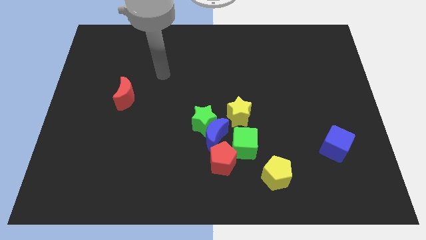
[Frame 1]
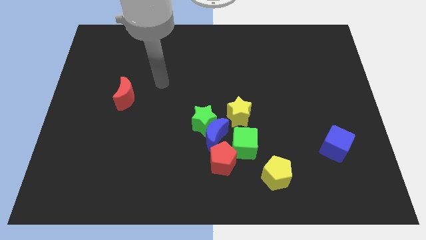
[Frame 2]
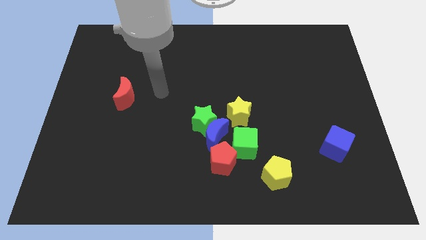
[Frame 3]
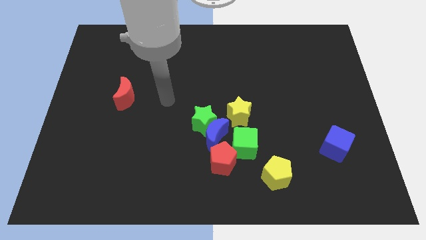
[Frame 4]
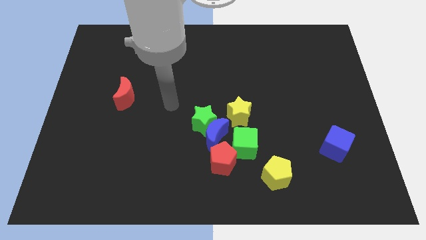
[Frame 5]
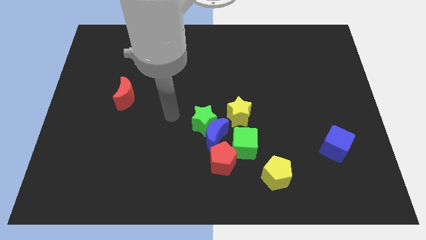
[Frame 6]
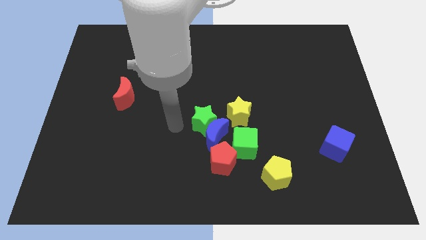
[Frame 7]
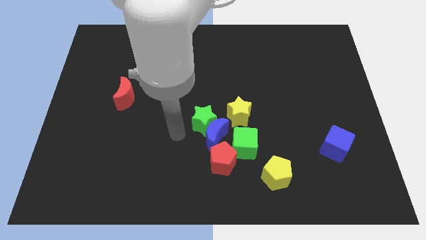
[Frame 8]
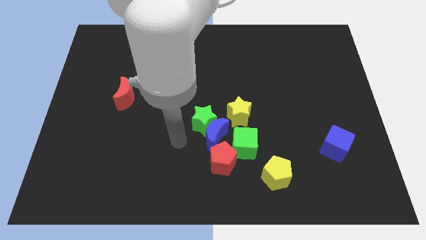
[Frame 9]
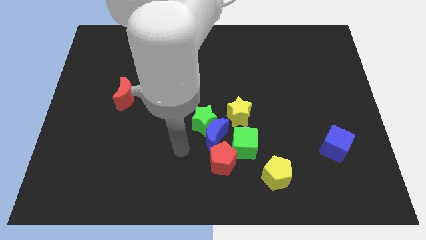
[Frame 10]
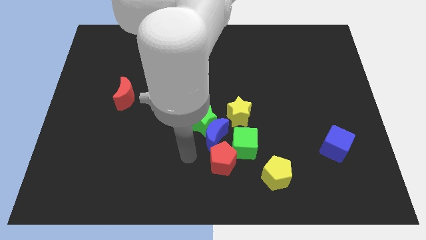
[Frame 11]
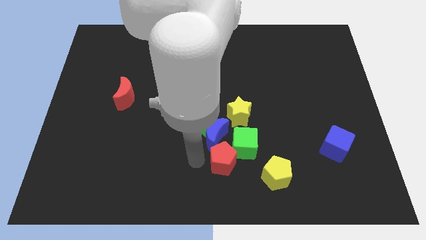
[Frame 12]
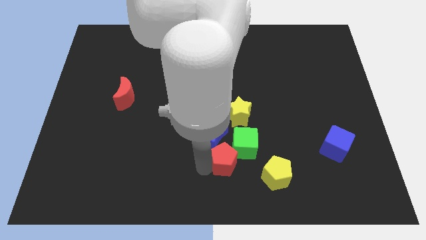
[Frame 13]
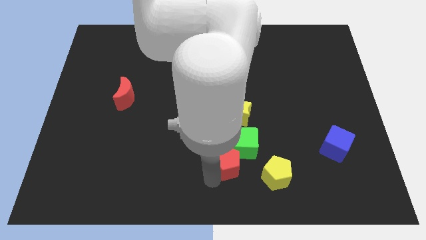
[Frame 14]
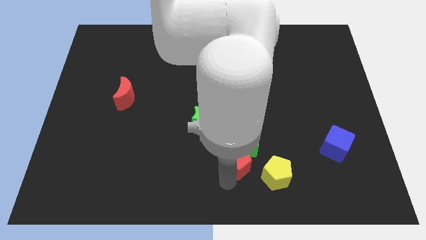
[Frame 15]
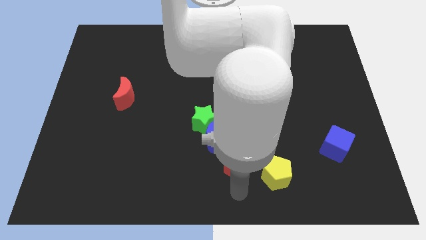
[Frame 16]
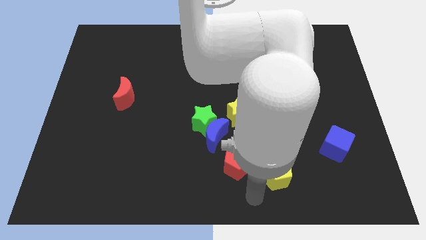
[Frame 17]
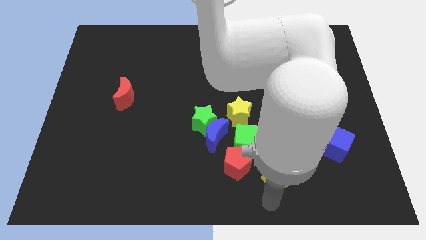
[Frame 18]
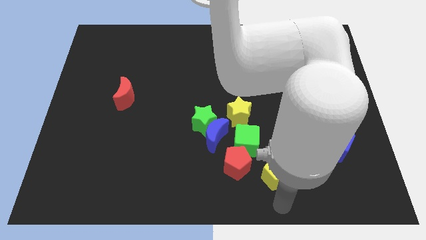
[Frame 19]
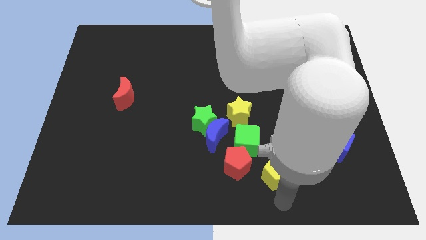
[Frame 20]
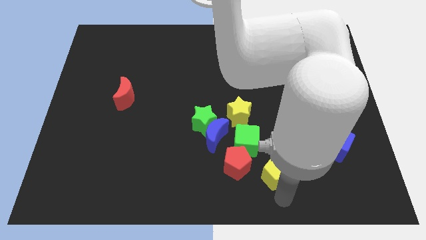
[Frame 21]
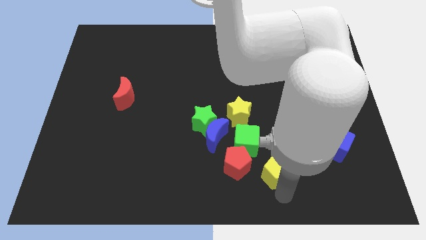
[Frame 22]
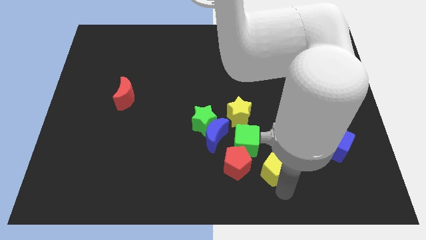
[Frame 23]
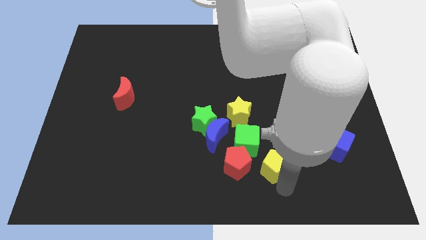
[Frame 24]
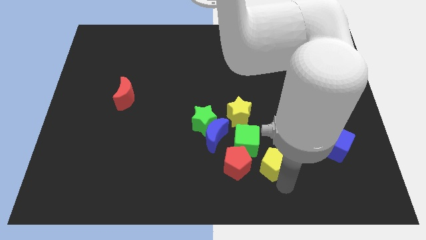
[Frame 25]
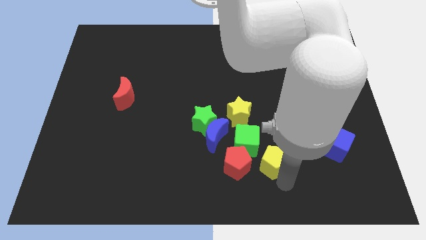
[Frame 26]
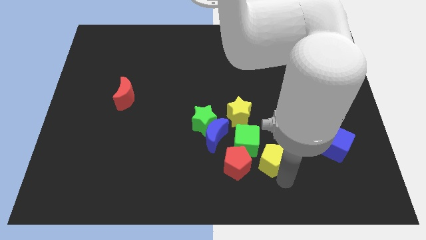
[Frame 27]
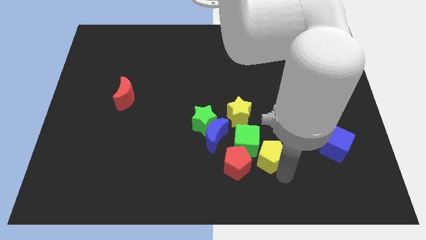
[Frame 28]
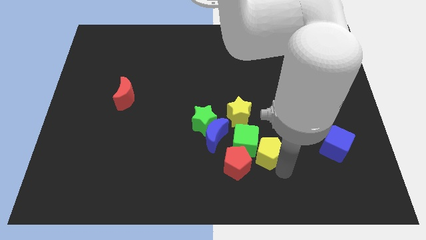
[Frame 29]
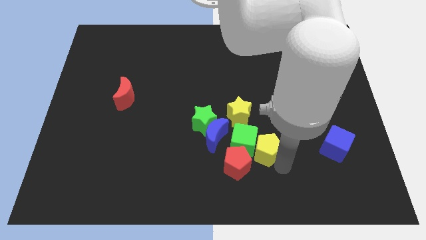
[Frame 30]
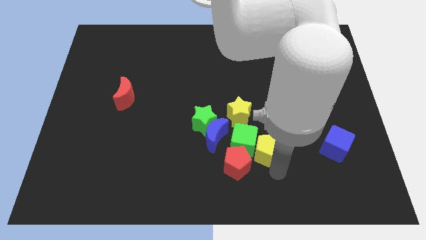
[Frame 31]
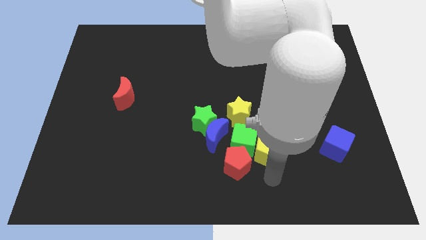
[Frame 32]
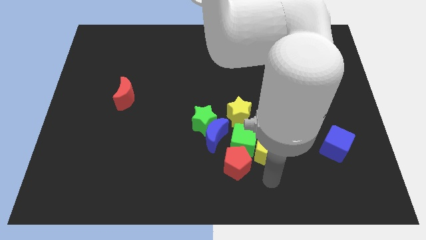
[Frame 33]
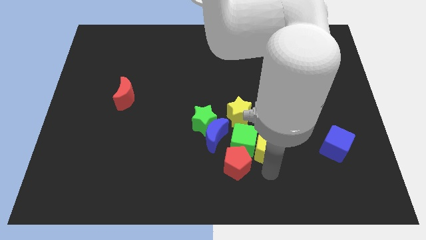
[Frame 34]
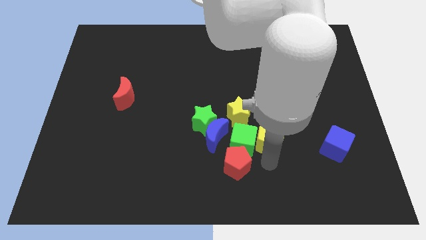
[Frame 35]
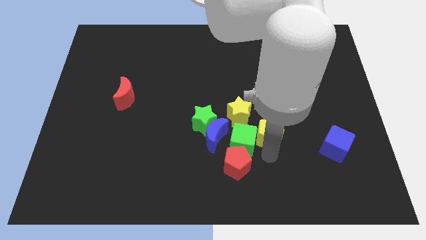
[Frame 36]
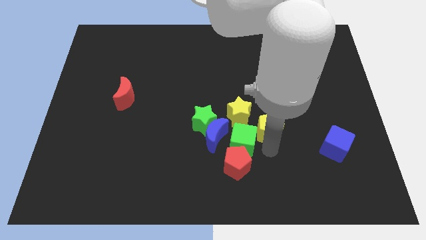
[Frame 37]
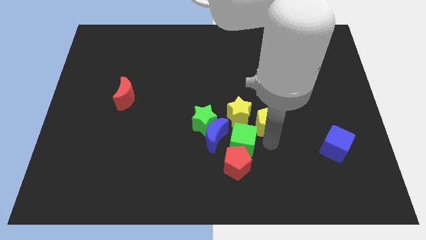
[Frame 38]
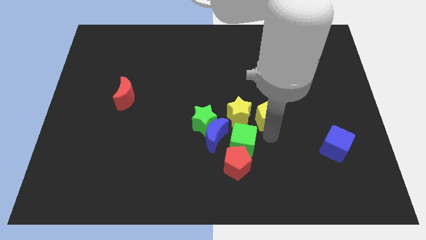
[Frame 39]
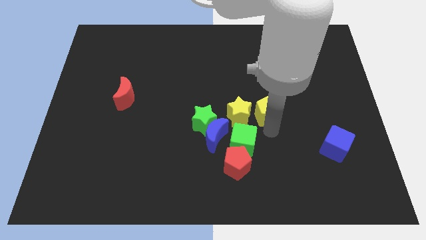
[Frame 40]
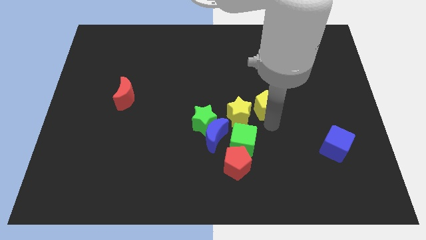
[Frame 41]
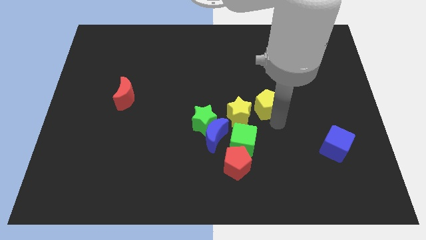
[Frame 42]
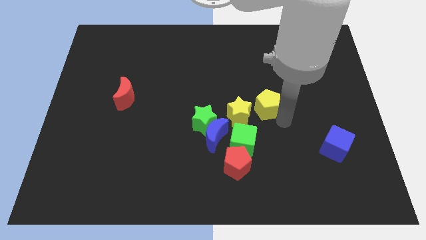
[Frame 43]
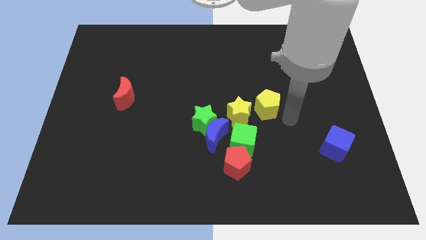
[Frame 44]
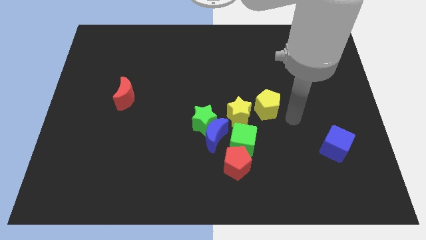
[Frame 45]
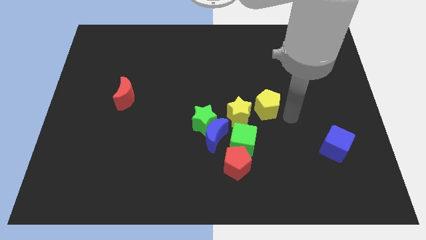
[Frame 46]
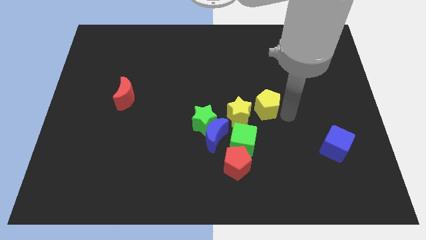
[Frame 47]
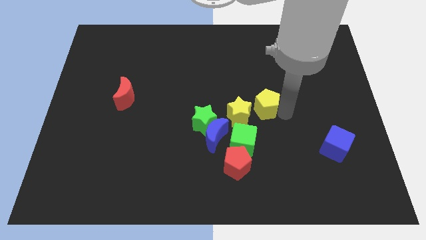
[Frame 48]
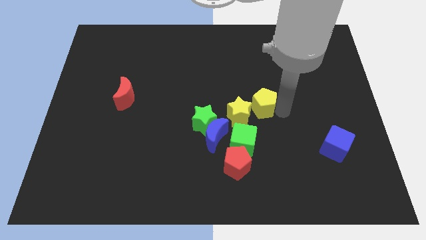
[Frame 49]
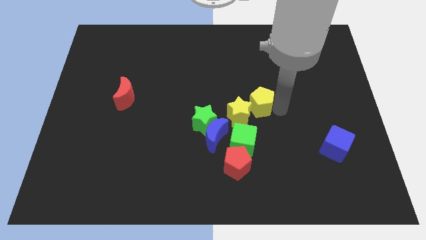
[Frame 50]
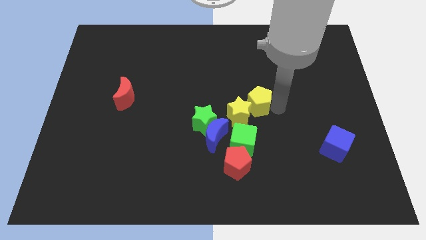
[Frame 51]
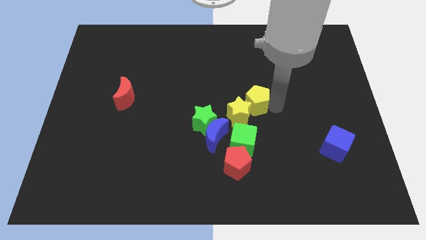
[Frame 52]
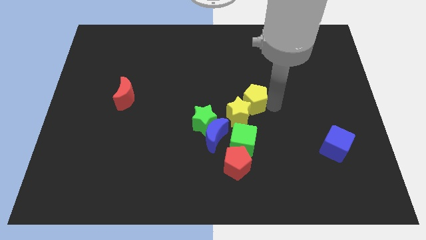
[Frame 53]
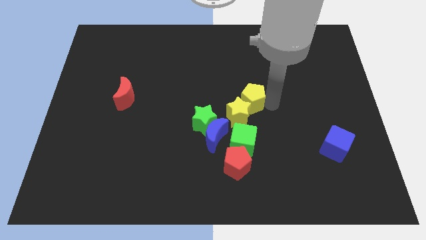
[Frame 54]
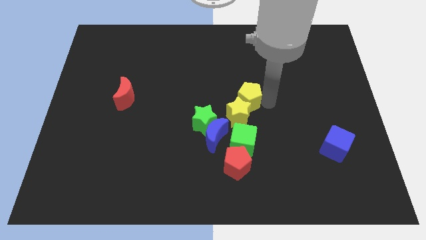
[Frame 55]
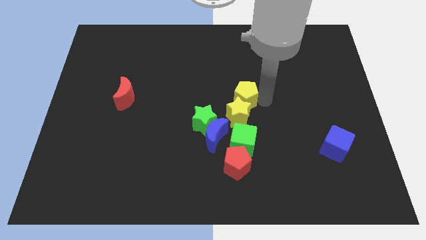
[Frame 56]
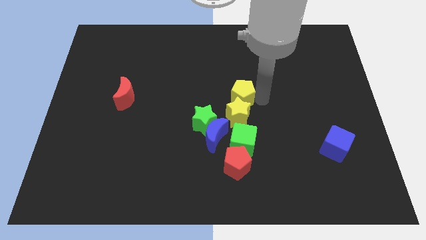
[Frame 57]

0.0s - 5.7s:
slide the yellow pentagon to the top left of the yellow star

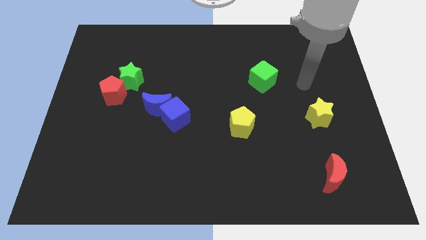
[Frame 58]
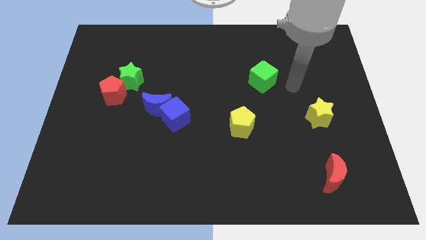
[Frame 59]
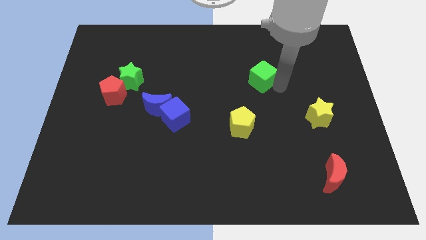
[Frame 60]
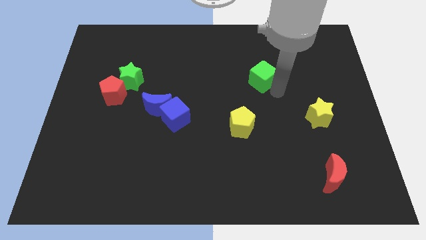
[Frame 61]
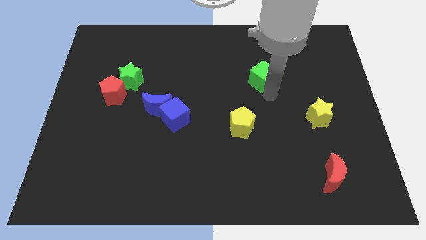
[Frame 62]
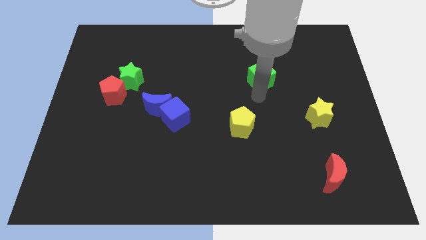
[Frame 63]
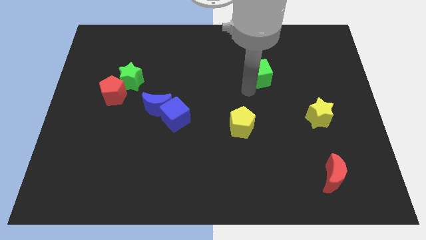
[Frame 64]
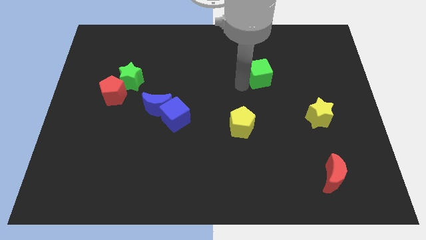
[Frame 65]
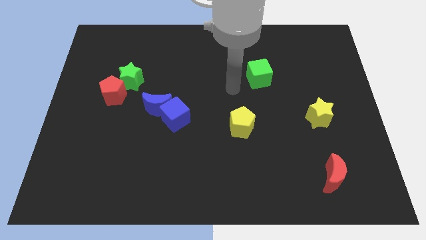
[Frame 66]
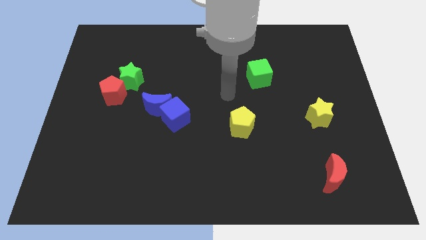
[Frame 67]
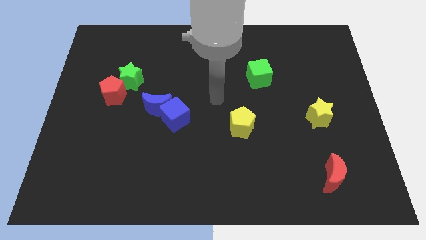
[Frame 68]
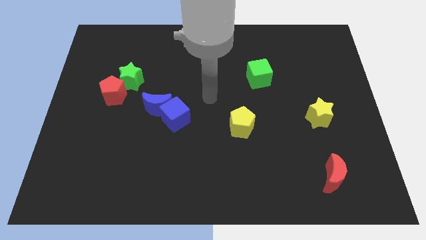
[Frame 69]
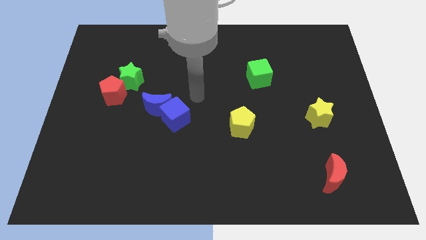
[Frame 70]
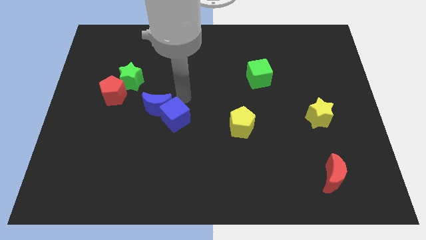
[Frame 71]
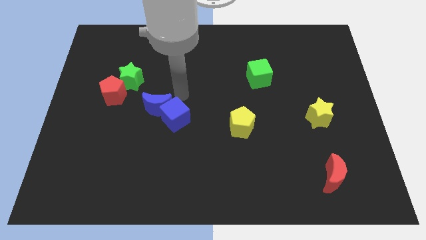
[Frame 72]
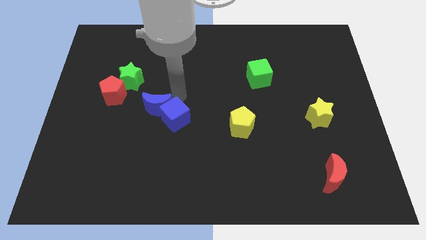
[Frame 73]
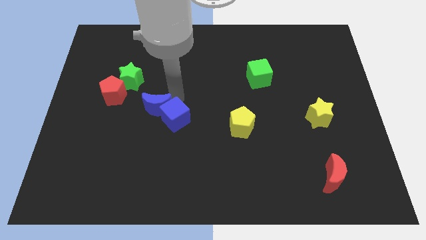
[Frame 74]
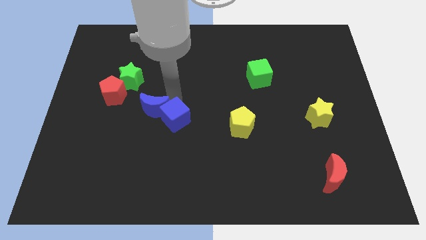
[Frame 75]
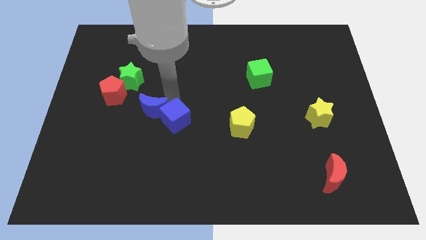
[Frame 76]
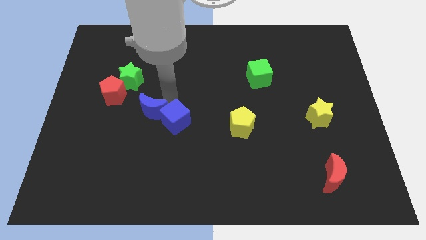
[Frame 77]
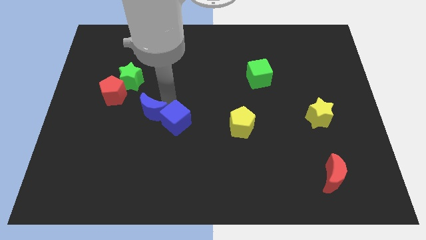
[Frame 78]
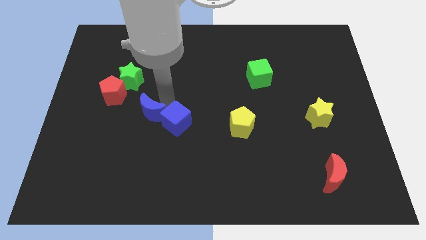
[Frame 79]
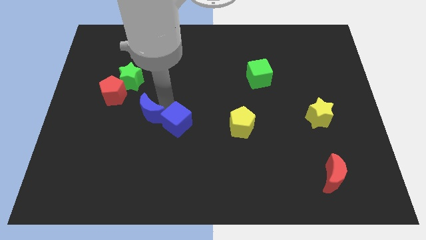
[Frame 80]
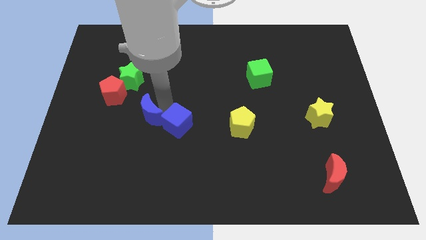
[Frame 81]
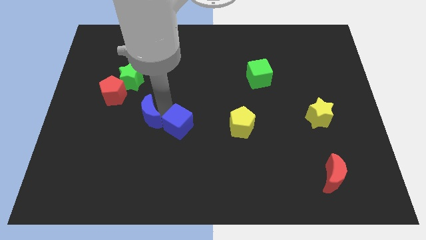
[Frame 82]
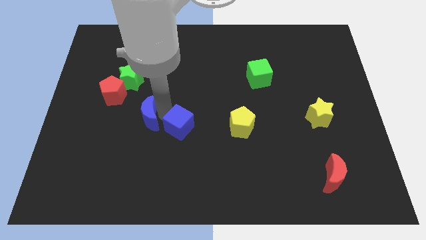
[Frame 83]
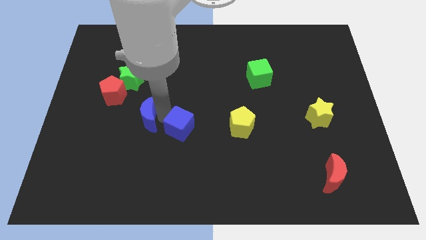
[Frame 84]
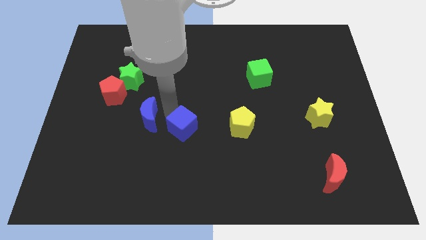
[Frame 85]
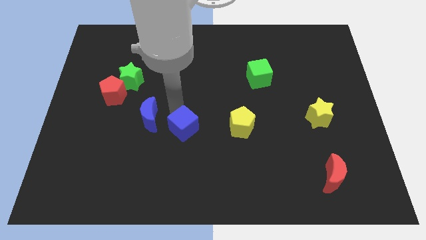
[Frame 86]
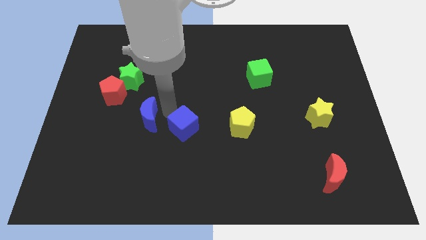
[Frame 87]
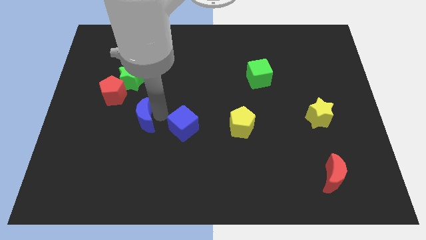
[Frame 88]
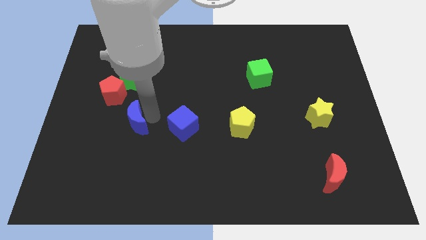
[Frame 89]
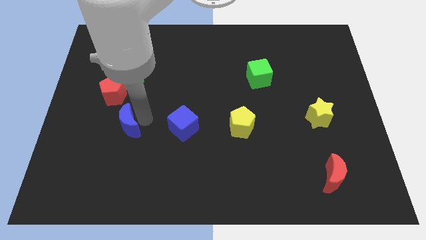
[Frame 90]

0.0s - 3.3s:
move the blue moon below the red pentagon
